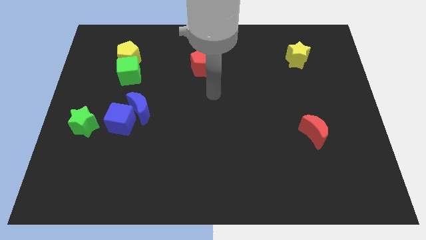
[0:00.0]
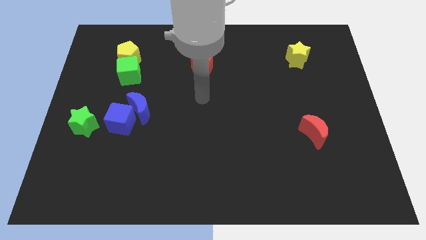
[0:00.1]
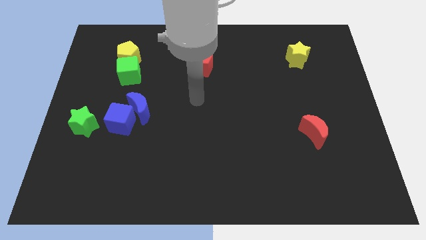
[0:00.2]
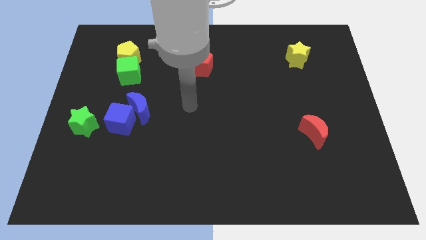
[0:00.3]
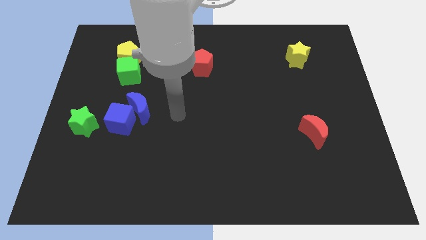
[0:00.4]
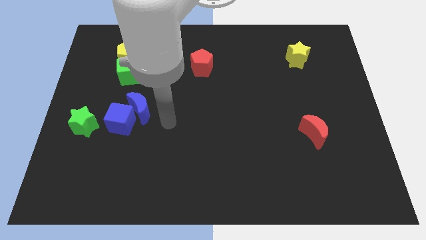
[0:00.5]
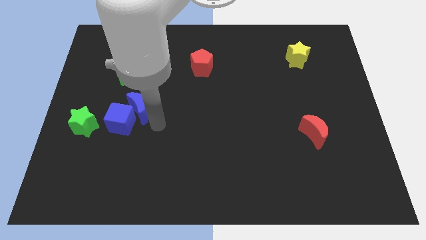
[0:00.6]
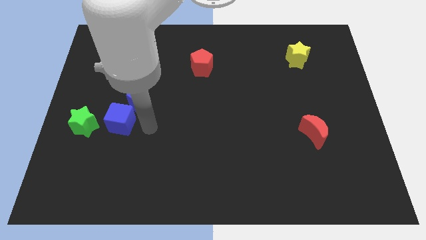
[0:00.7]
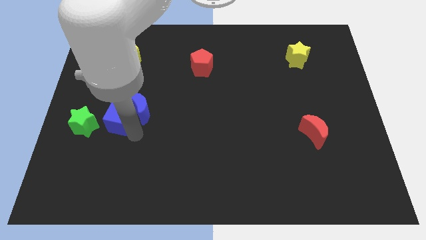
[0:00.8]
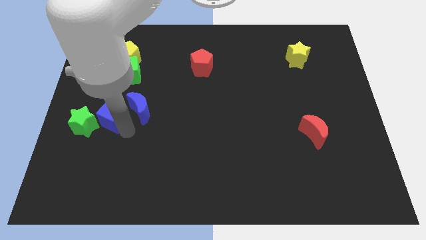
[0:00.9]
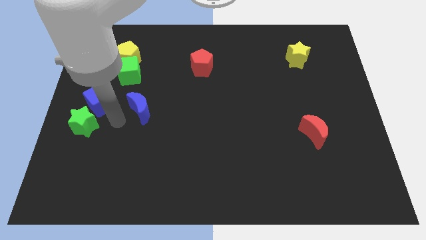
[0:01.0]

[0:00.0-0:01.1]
pull the blue moon apart from the blue cube

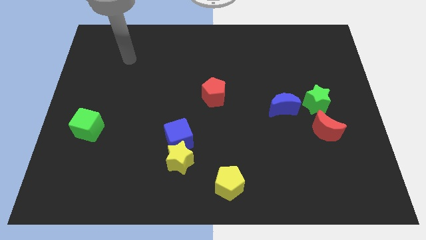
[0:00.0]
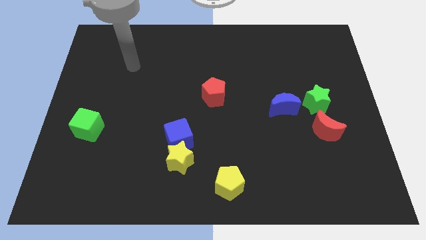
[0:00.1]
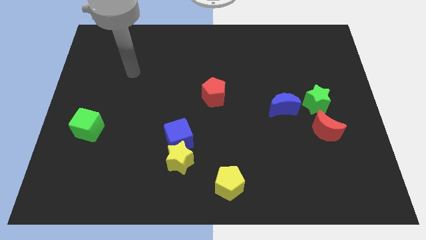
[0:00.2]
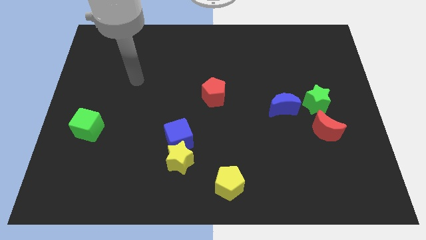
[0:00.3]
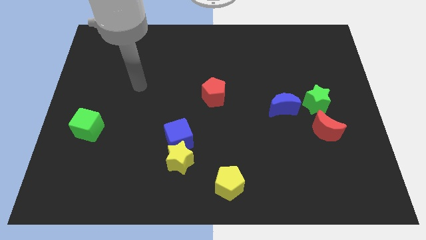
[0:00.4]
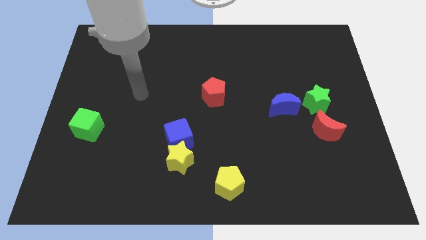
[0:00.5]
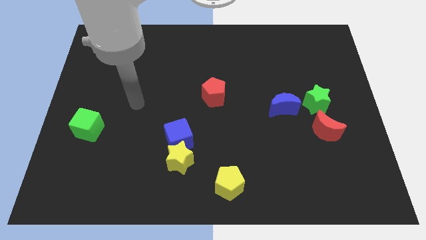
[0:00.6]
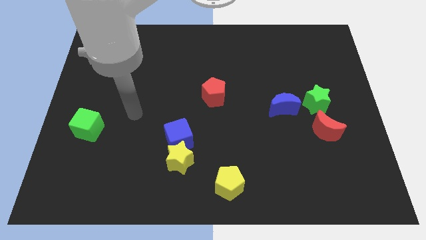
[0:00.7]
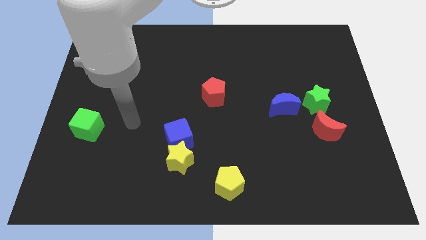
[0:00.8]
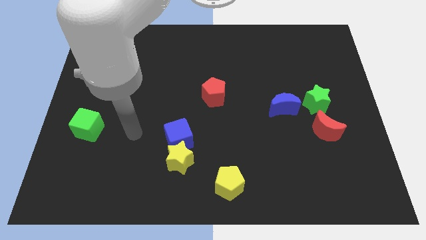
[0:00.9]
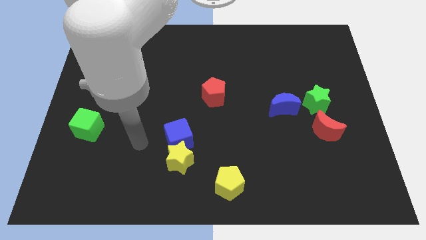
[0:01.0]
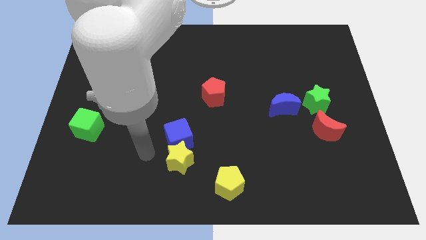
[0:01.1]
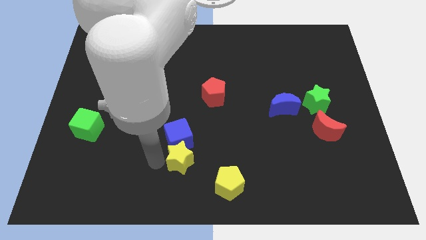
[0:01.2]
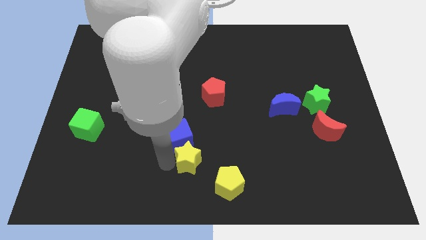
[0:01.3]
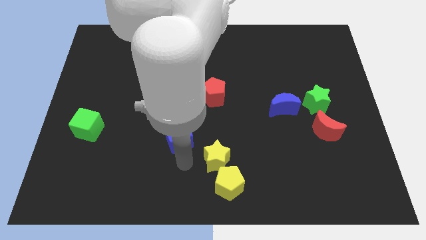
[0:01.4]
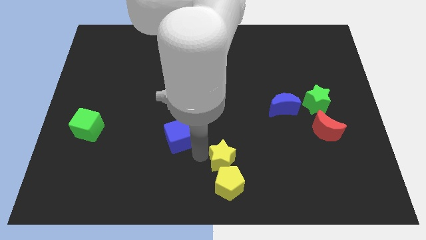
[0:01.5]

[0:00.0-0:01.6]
move the blue cube away from the yellow star

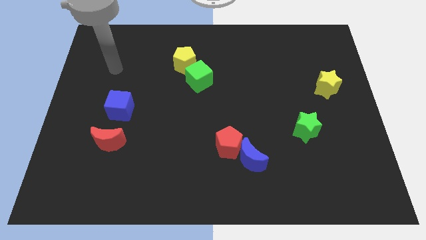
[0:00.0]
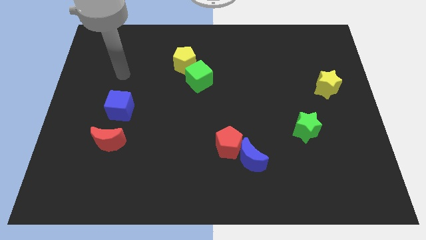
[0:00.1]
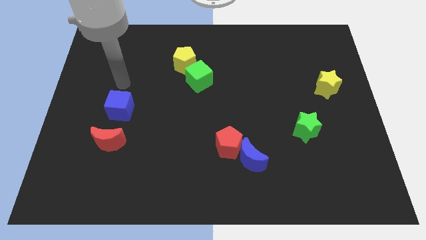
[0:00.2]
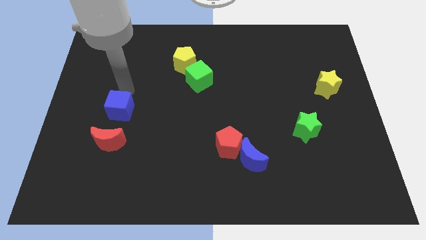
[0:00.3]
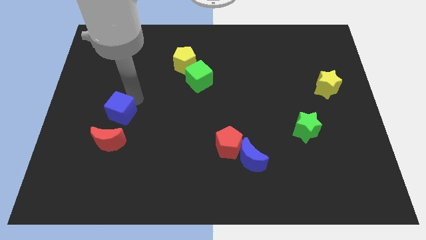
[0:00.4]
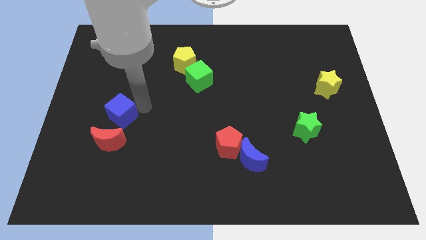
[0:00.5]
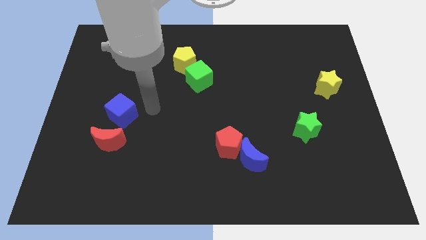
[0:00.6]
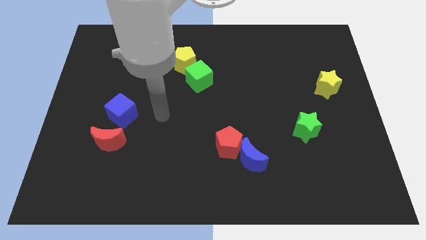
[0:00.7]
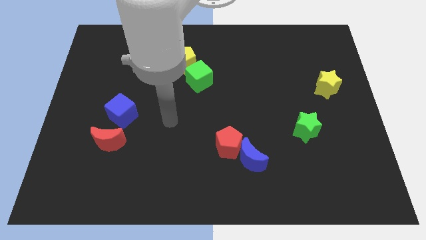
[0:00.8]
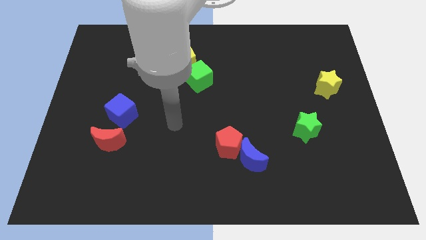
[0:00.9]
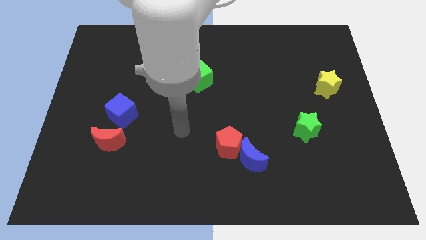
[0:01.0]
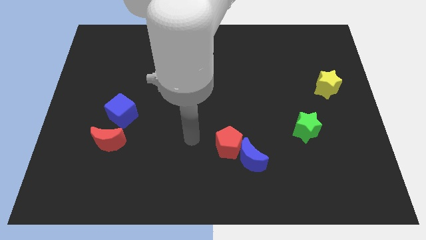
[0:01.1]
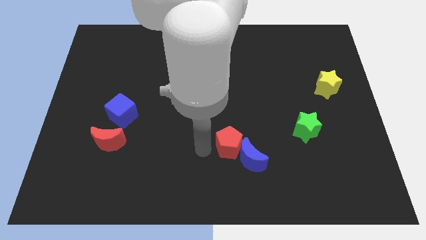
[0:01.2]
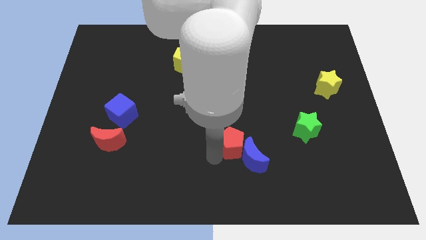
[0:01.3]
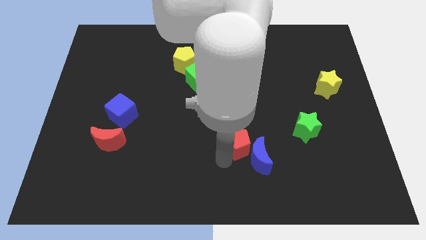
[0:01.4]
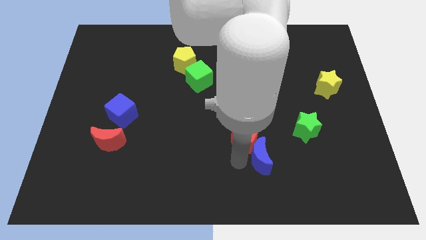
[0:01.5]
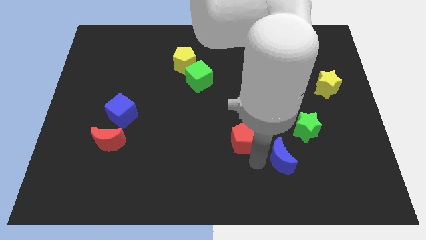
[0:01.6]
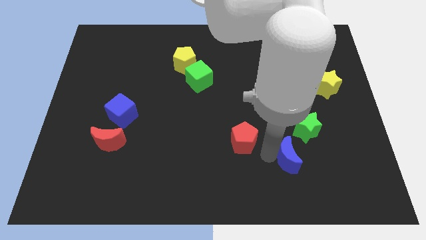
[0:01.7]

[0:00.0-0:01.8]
move the red pentagon away from the blue moon

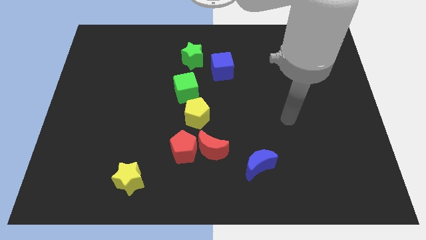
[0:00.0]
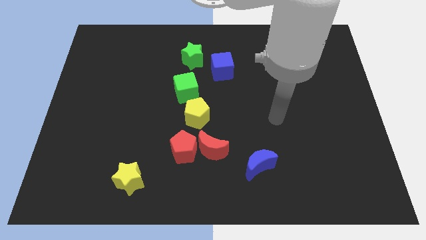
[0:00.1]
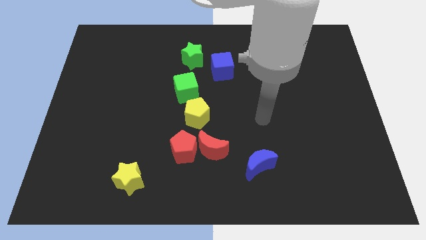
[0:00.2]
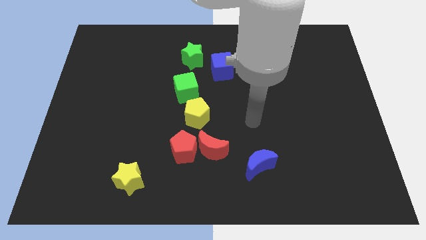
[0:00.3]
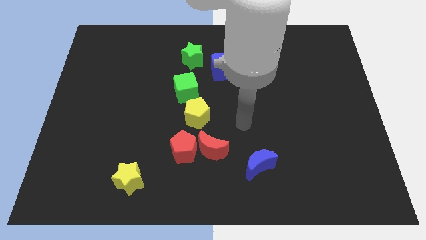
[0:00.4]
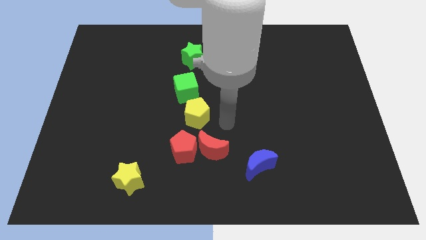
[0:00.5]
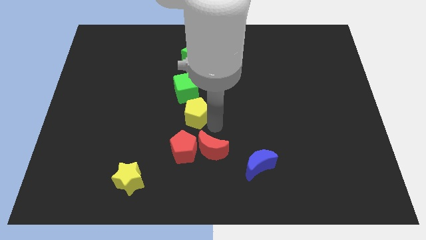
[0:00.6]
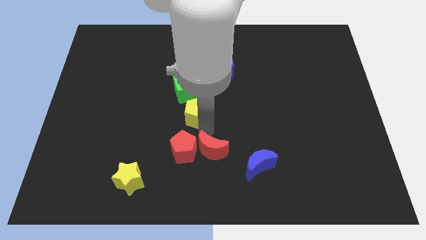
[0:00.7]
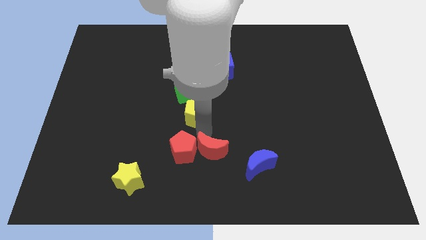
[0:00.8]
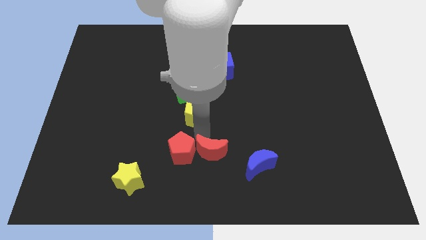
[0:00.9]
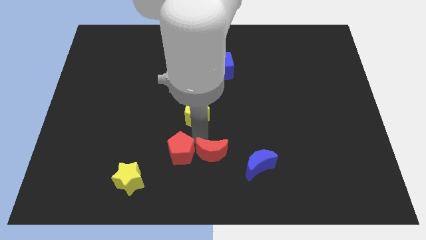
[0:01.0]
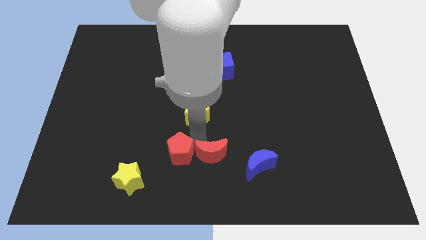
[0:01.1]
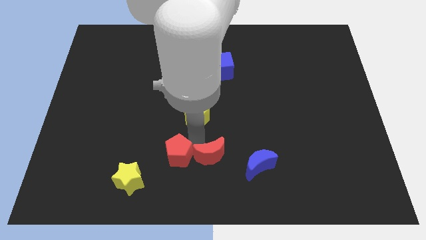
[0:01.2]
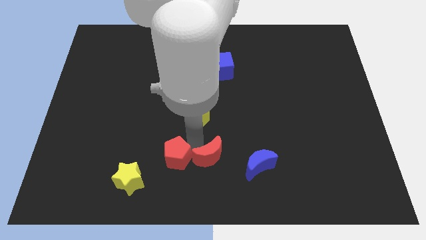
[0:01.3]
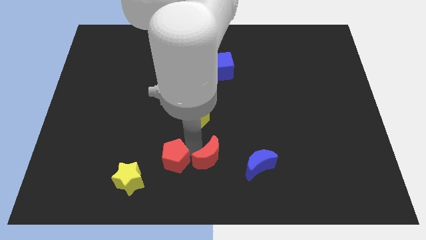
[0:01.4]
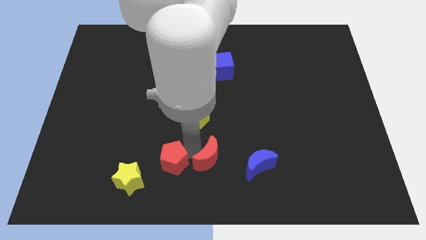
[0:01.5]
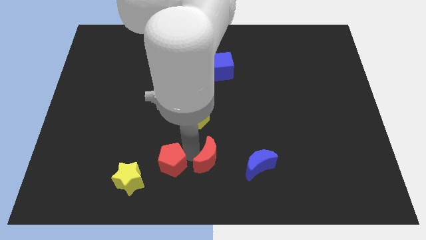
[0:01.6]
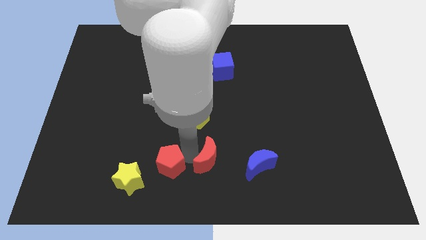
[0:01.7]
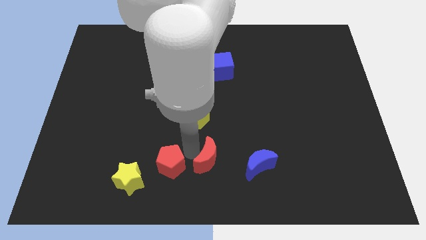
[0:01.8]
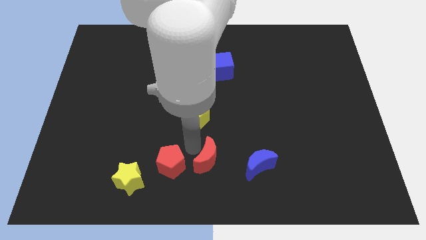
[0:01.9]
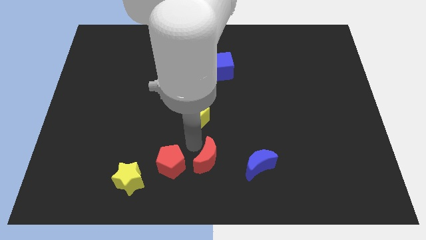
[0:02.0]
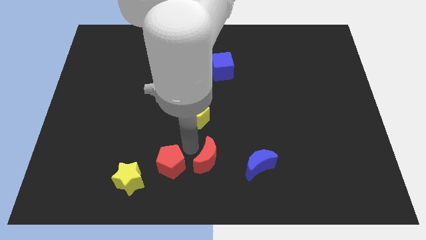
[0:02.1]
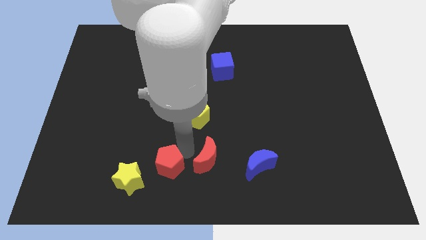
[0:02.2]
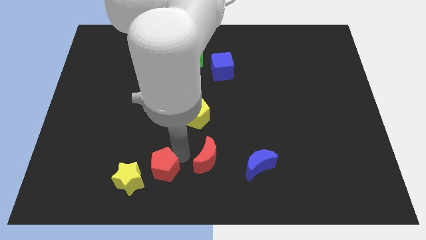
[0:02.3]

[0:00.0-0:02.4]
move the red pentagon away from the red moon and yellow pentagon

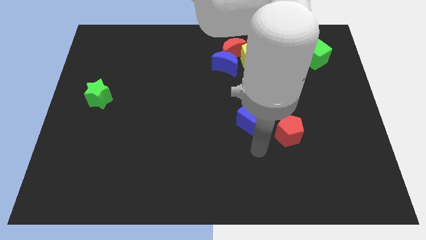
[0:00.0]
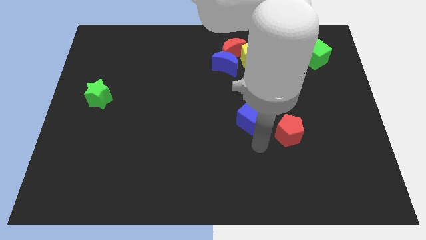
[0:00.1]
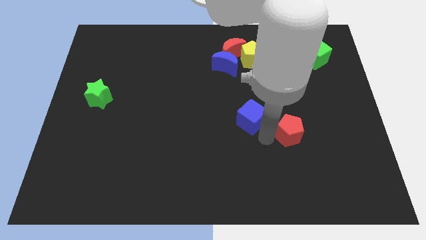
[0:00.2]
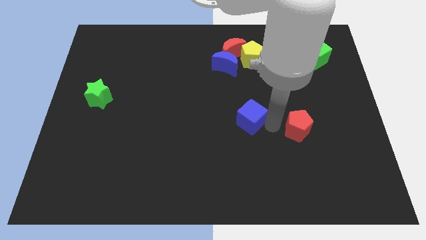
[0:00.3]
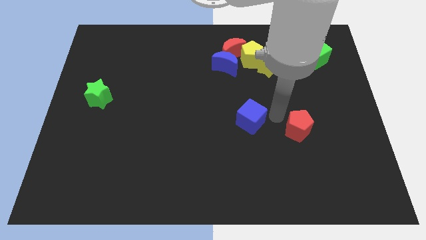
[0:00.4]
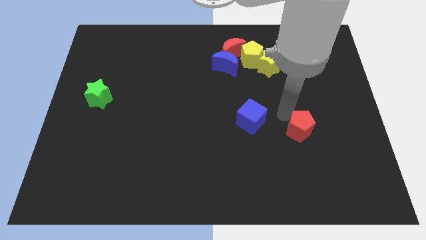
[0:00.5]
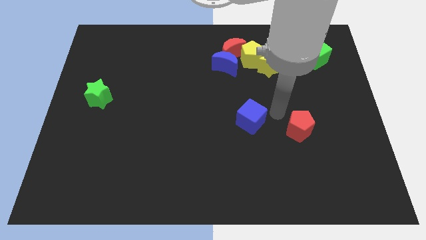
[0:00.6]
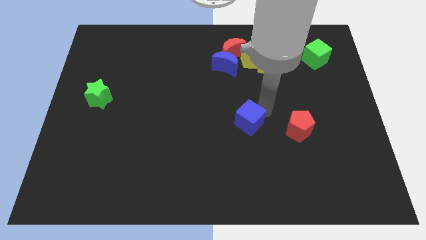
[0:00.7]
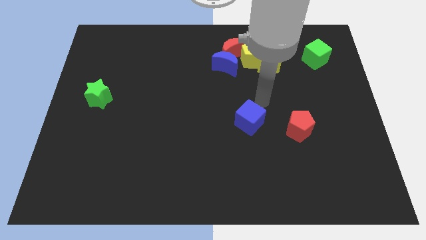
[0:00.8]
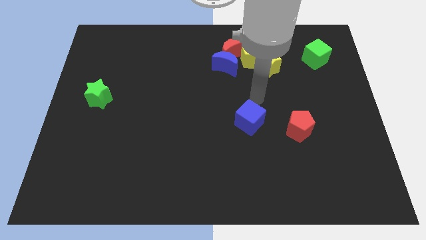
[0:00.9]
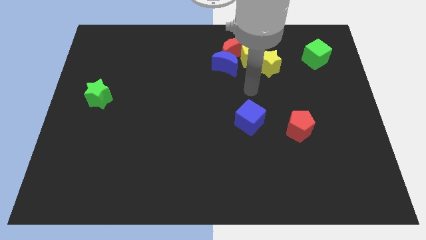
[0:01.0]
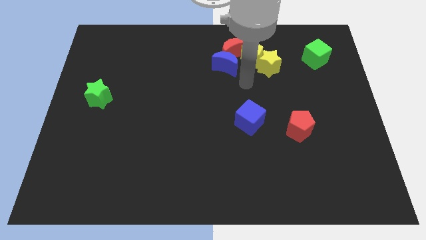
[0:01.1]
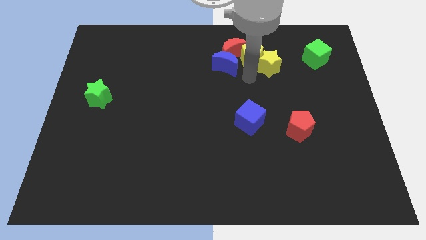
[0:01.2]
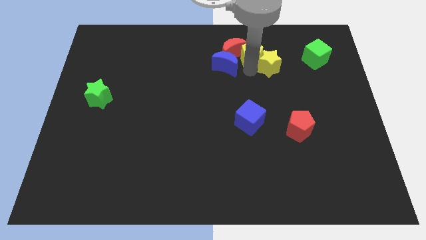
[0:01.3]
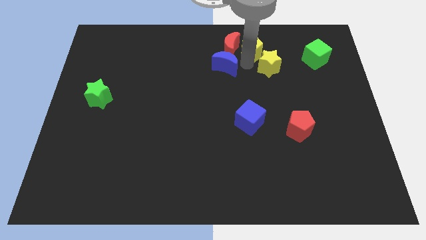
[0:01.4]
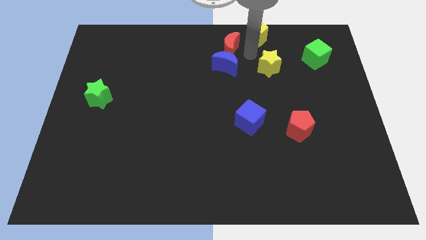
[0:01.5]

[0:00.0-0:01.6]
pull the yellow star apart from the yellow pentagon

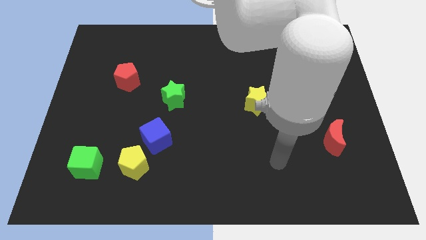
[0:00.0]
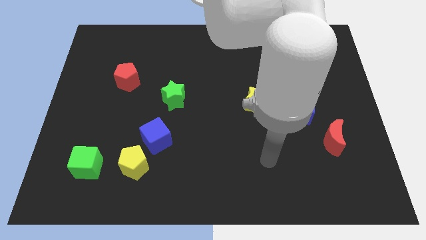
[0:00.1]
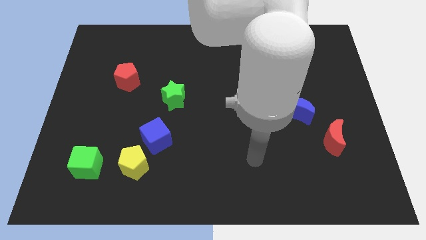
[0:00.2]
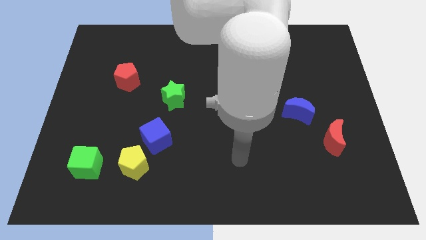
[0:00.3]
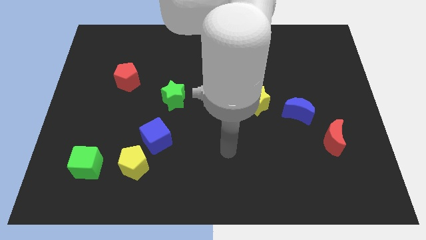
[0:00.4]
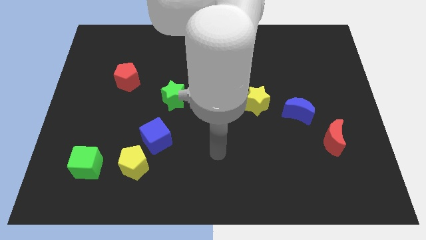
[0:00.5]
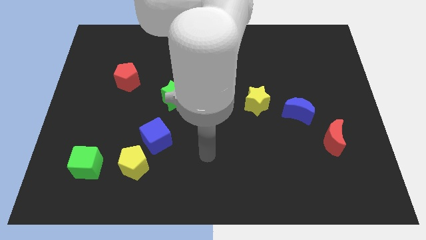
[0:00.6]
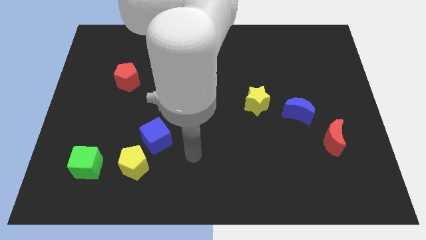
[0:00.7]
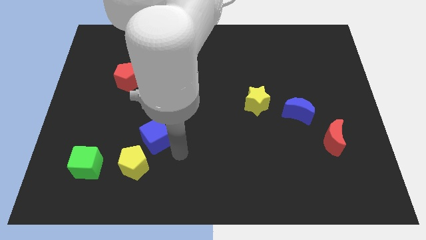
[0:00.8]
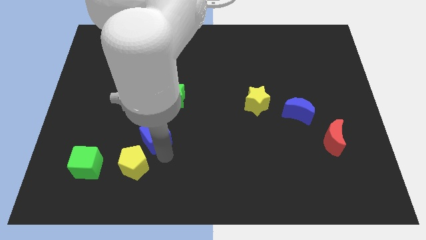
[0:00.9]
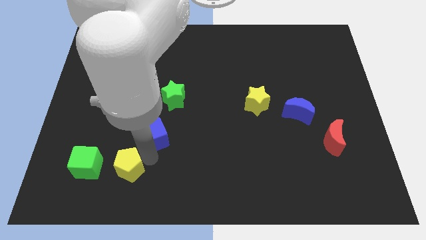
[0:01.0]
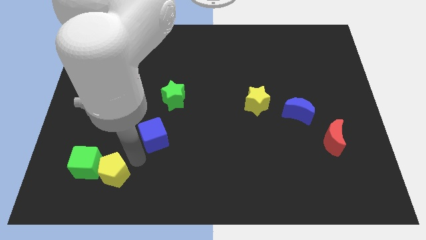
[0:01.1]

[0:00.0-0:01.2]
pull the blue cube apart from the yellow pentagon
